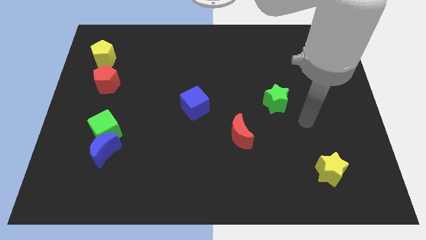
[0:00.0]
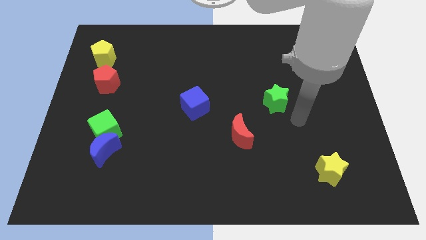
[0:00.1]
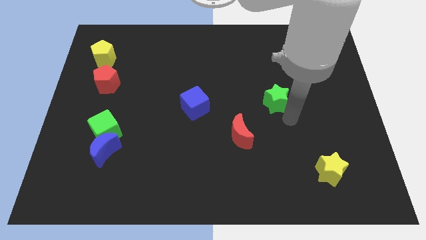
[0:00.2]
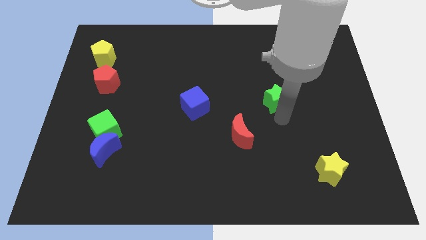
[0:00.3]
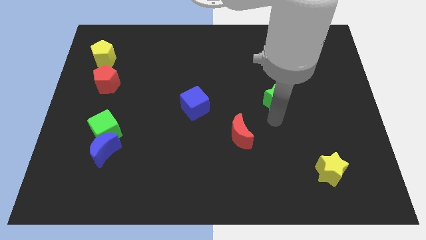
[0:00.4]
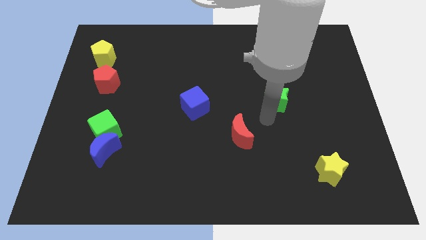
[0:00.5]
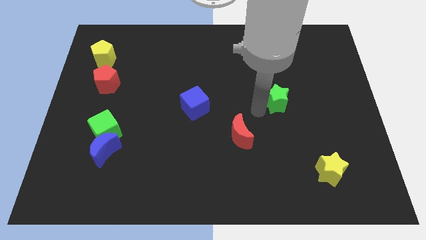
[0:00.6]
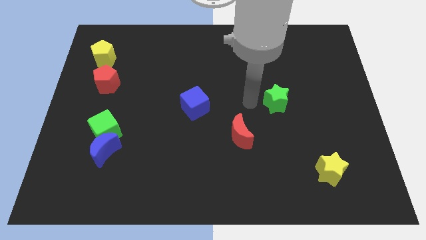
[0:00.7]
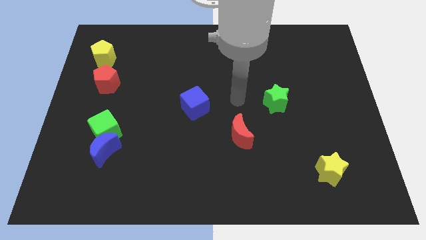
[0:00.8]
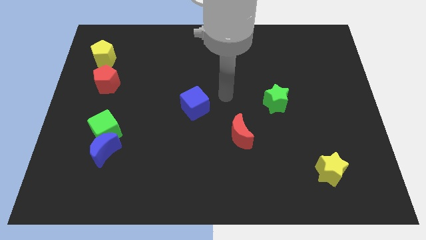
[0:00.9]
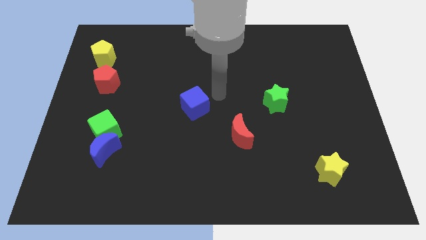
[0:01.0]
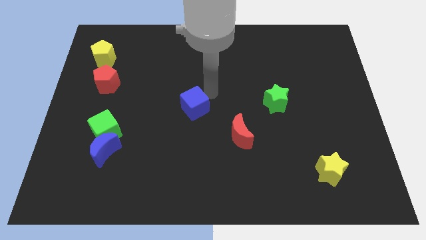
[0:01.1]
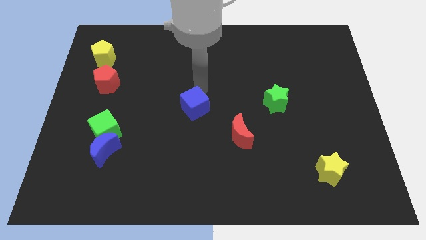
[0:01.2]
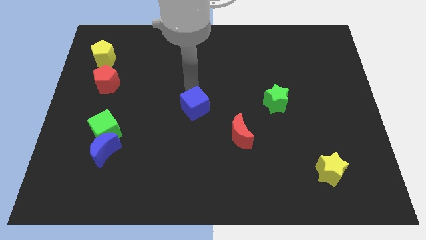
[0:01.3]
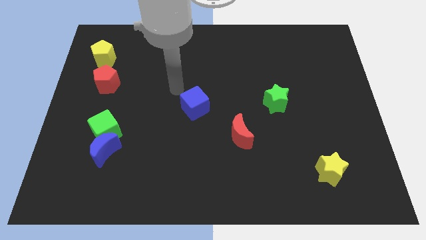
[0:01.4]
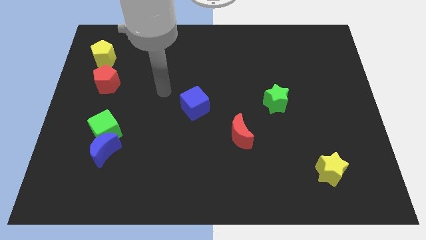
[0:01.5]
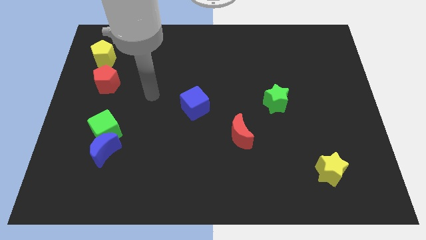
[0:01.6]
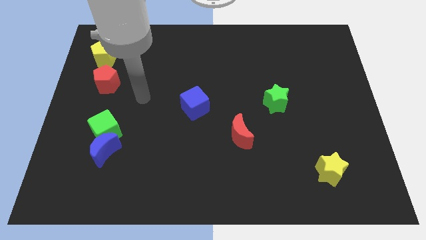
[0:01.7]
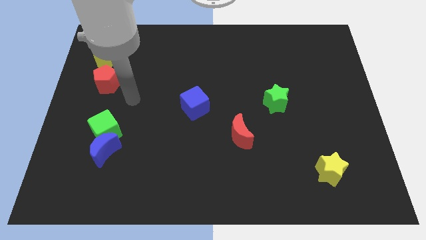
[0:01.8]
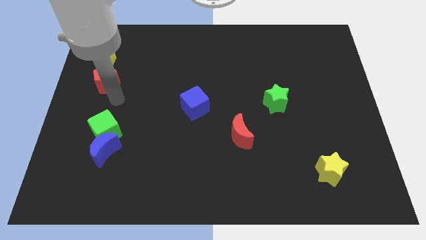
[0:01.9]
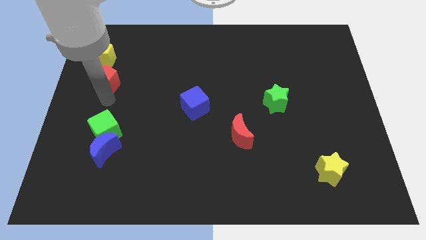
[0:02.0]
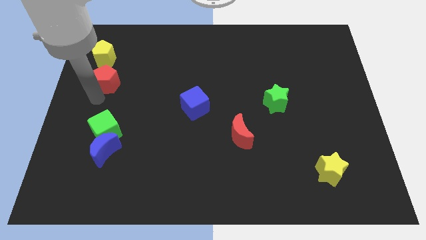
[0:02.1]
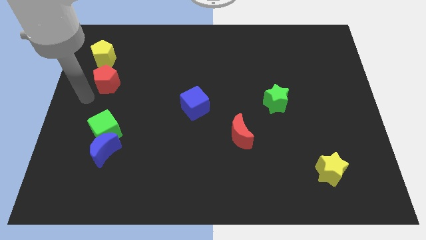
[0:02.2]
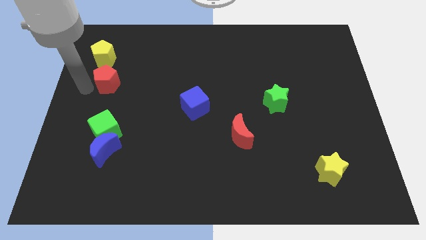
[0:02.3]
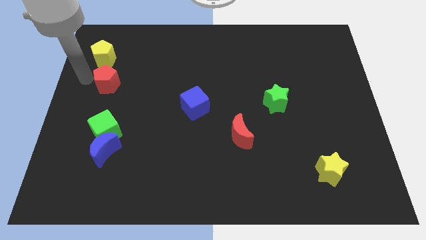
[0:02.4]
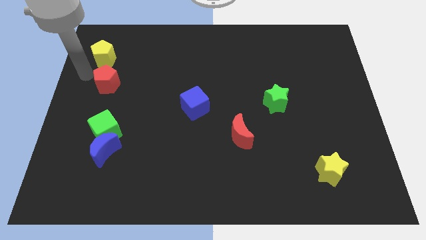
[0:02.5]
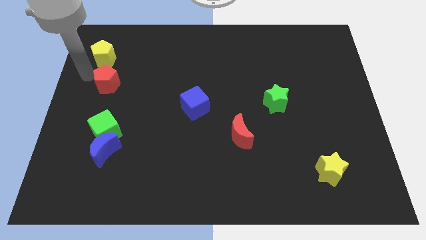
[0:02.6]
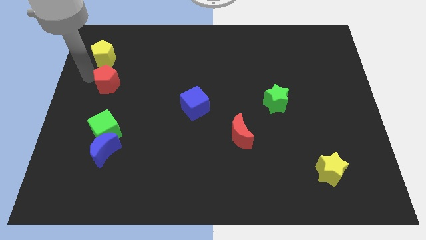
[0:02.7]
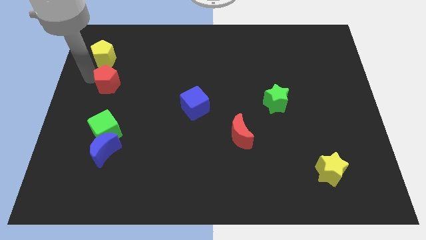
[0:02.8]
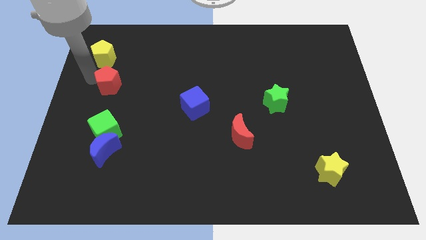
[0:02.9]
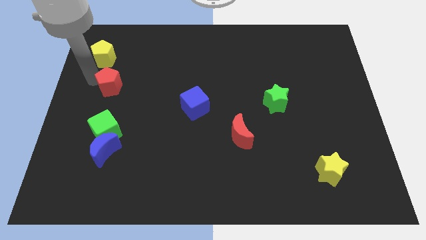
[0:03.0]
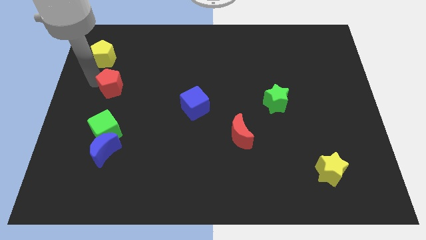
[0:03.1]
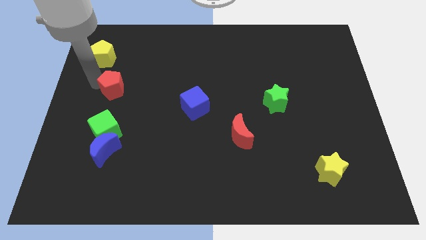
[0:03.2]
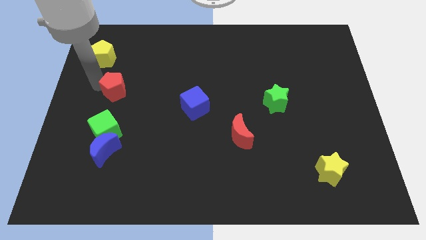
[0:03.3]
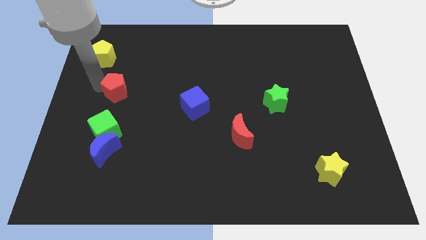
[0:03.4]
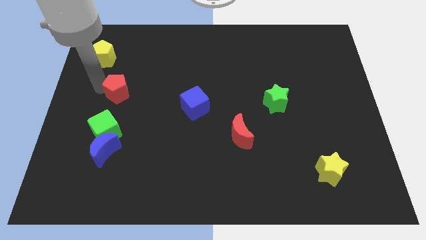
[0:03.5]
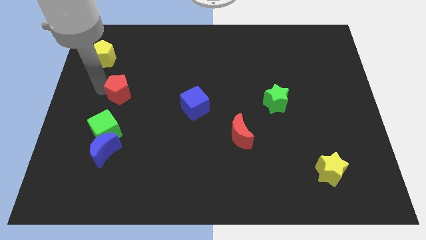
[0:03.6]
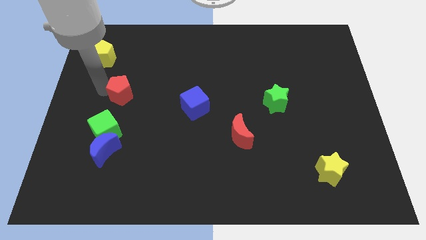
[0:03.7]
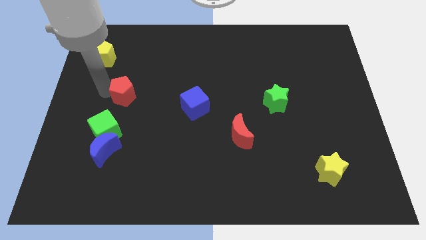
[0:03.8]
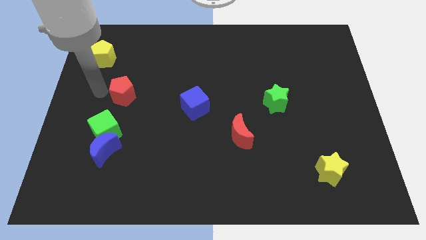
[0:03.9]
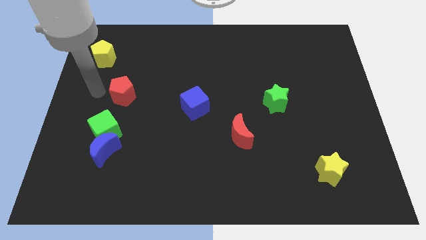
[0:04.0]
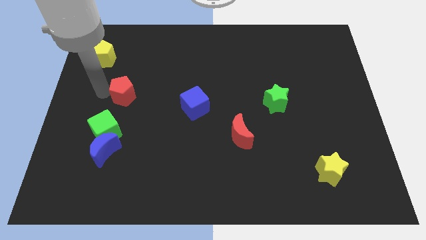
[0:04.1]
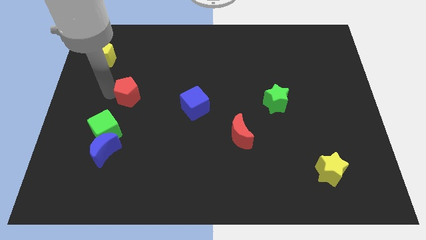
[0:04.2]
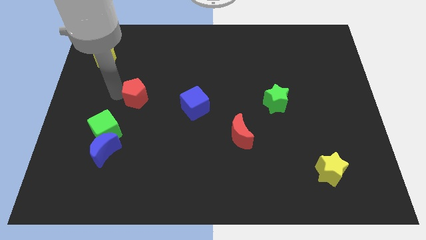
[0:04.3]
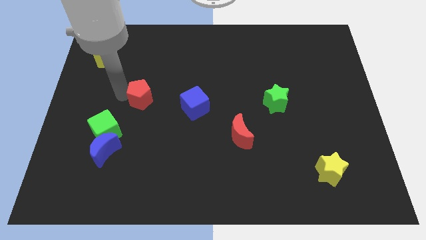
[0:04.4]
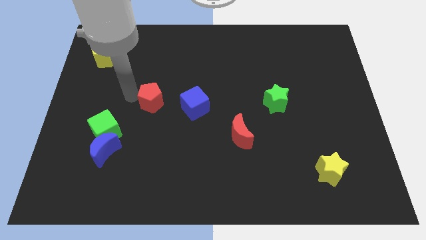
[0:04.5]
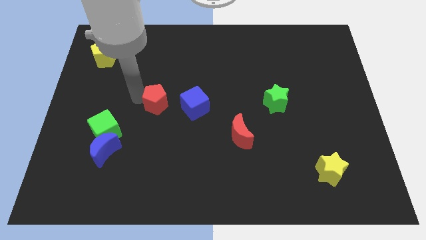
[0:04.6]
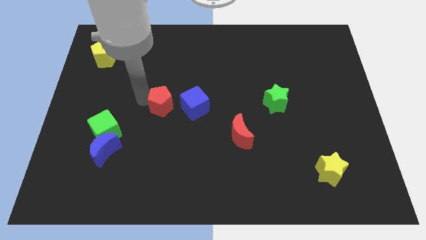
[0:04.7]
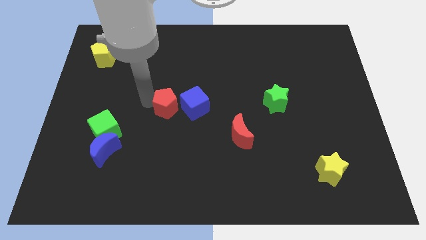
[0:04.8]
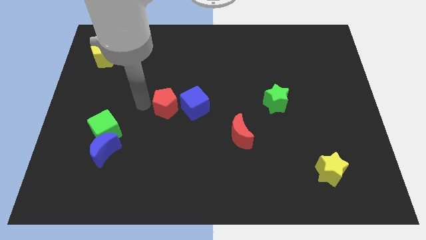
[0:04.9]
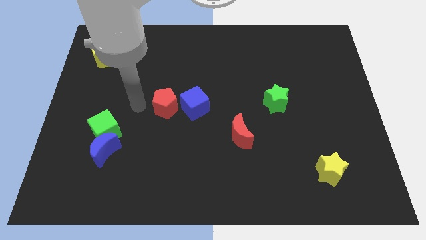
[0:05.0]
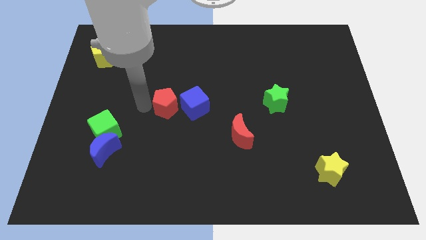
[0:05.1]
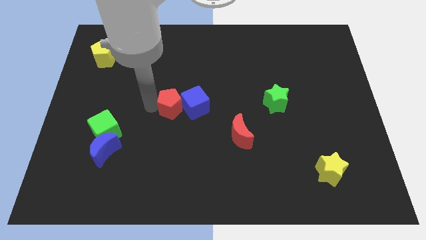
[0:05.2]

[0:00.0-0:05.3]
move the red pentagon to the blue cube

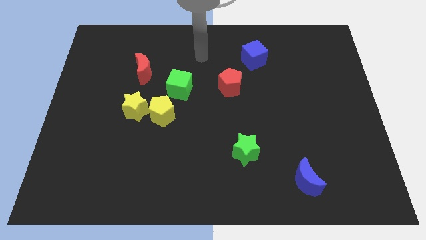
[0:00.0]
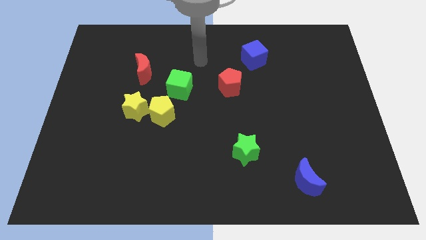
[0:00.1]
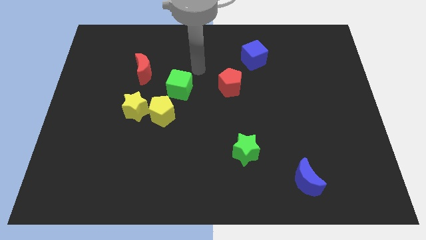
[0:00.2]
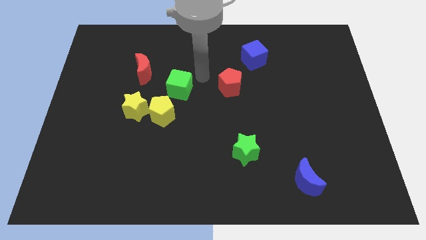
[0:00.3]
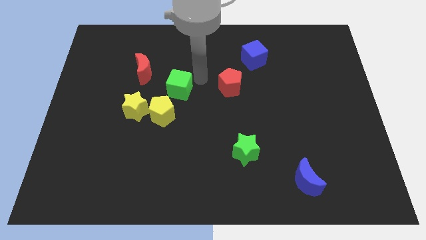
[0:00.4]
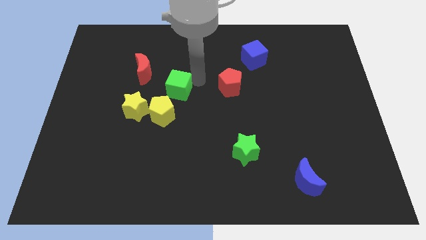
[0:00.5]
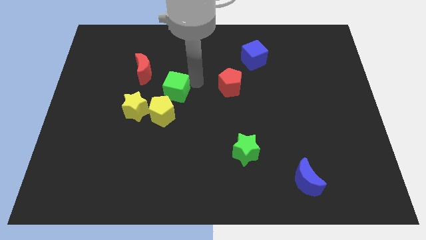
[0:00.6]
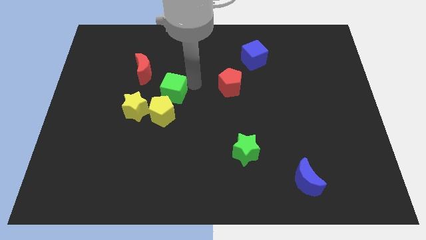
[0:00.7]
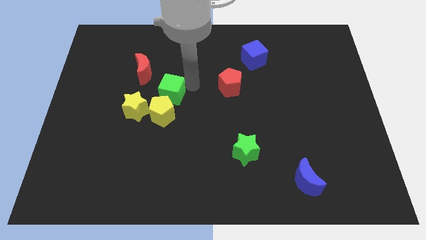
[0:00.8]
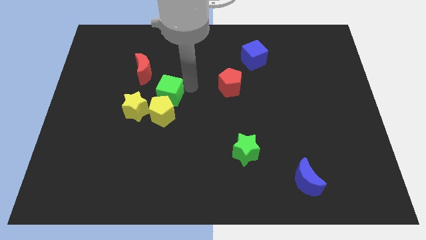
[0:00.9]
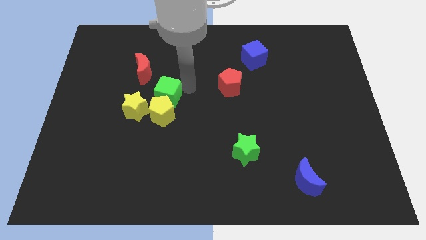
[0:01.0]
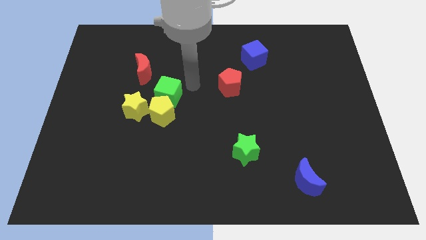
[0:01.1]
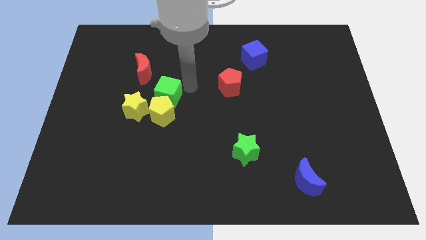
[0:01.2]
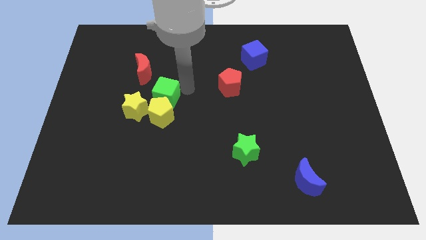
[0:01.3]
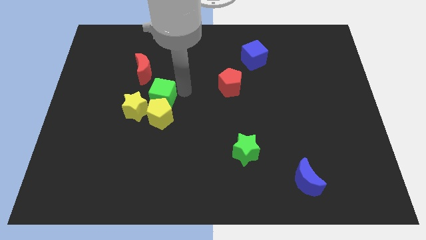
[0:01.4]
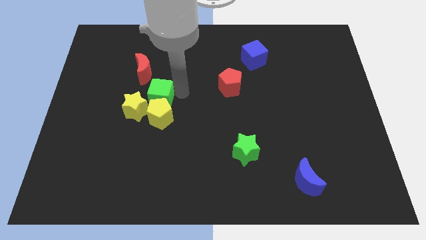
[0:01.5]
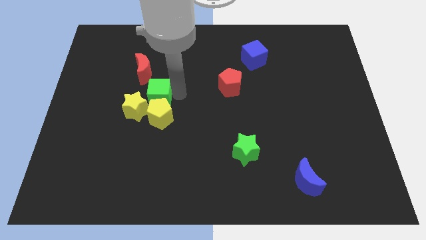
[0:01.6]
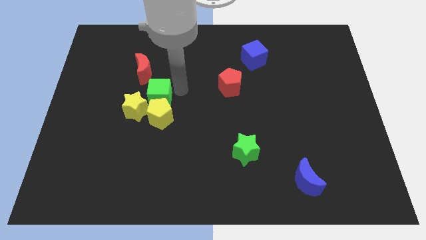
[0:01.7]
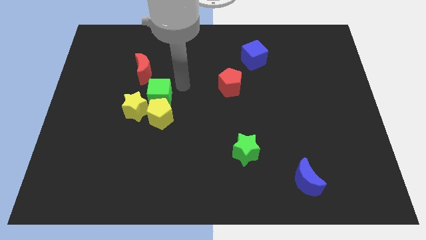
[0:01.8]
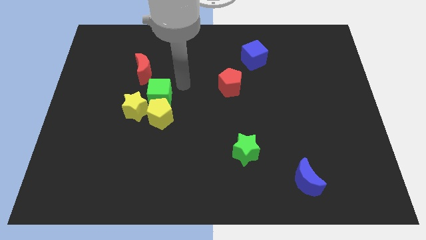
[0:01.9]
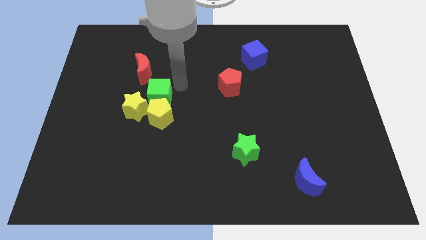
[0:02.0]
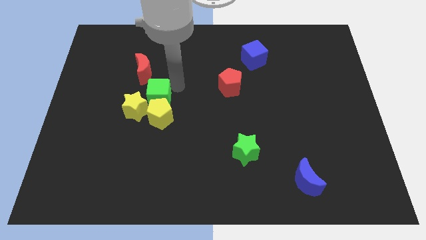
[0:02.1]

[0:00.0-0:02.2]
put the green cube towards the yellow star
